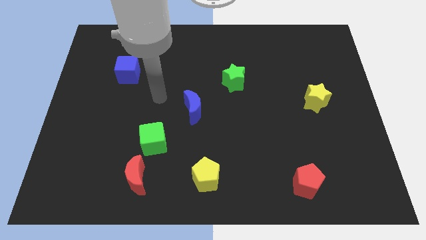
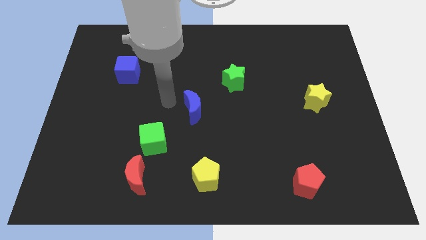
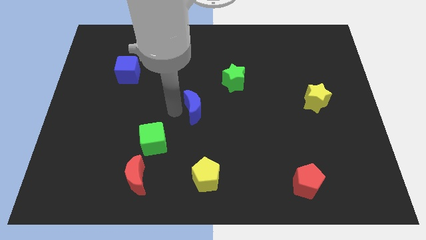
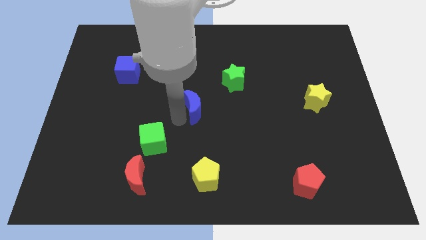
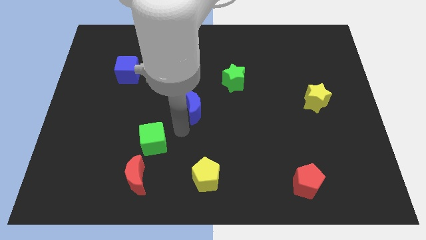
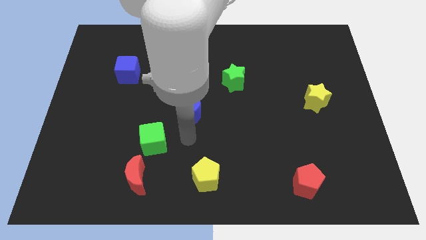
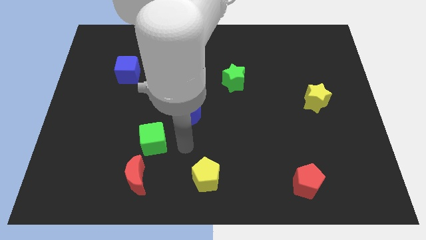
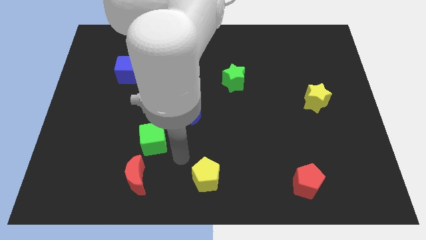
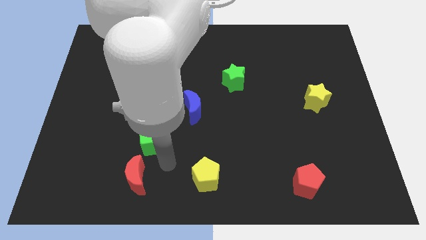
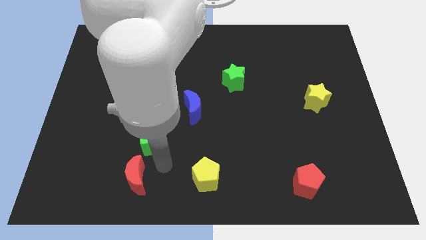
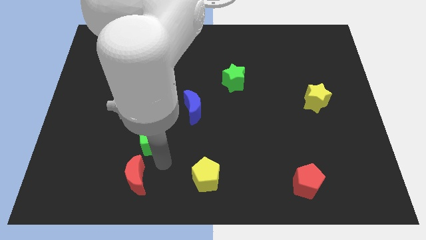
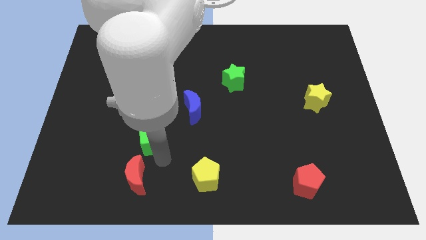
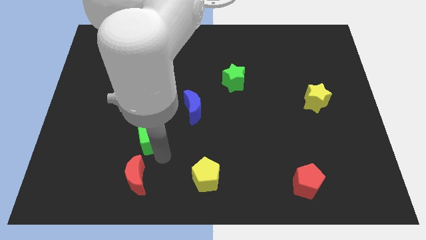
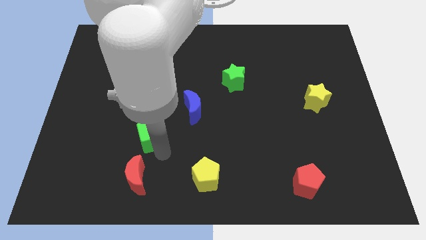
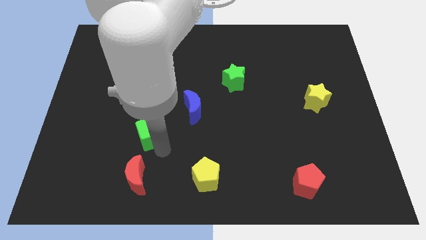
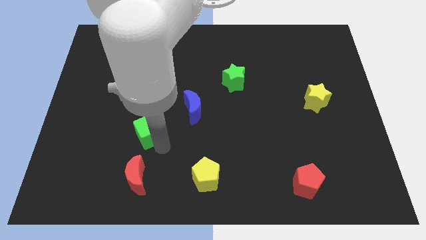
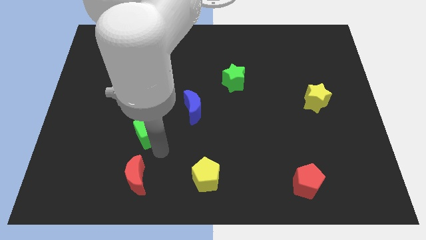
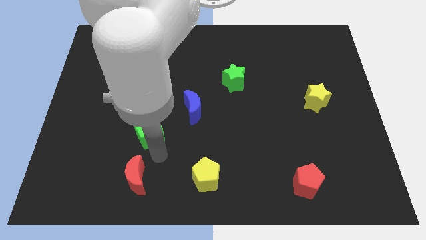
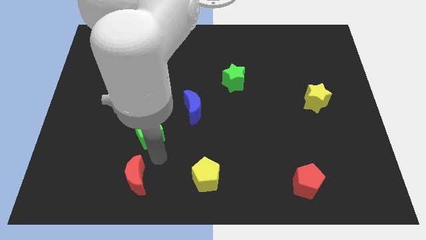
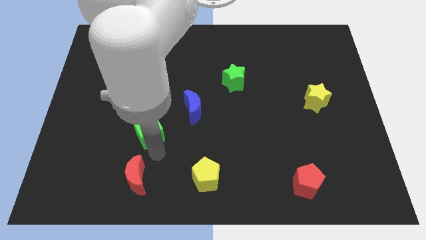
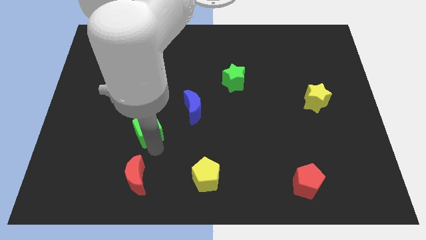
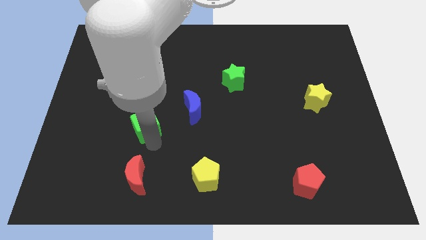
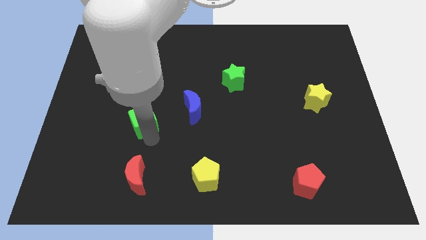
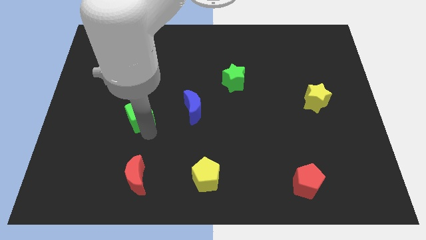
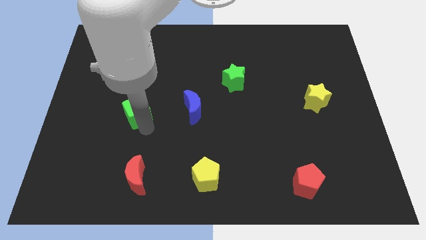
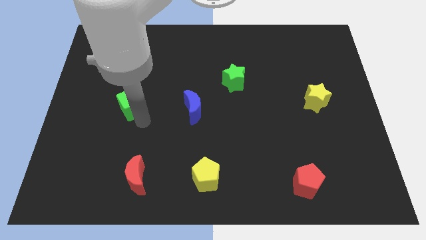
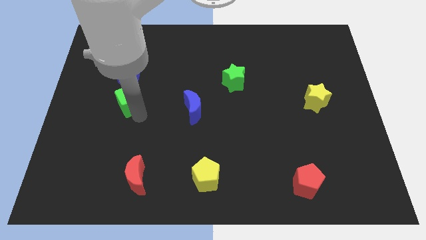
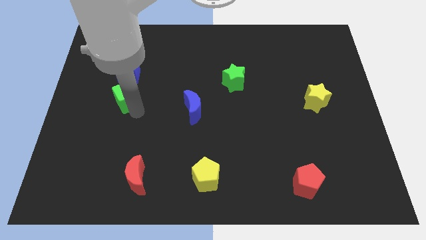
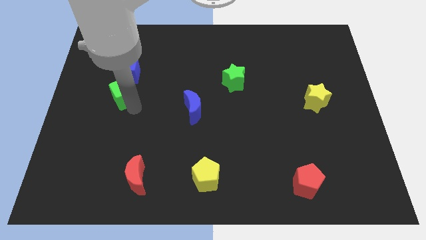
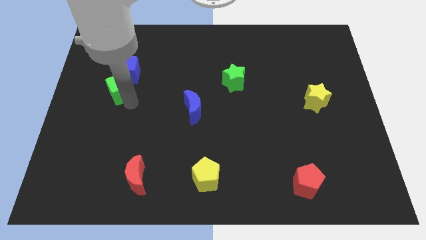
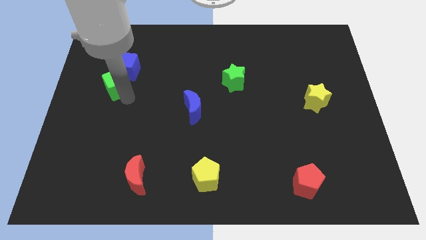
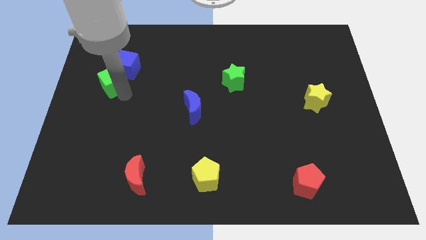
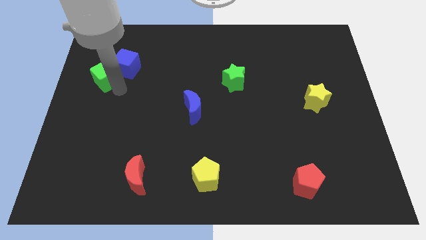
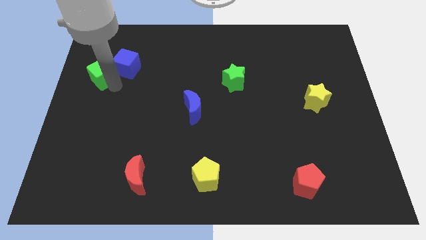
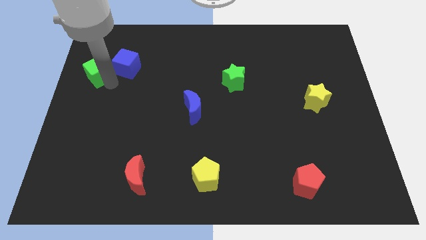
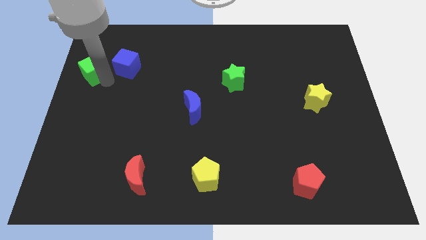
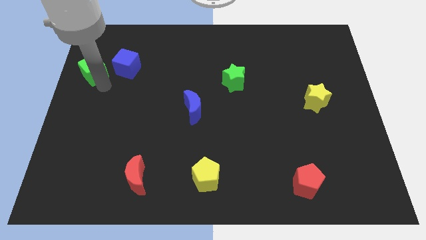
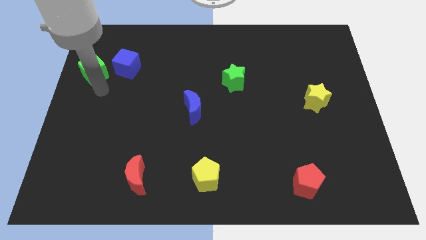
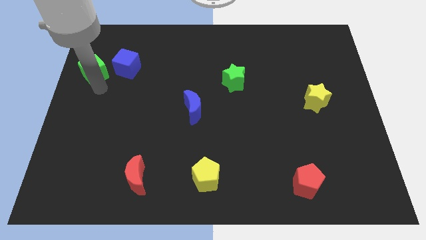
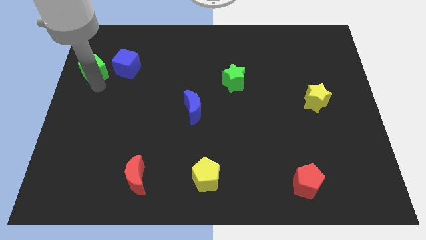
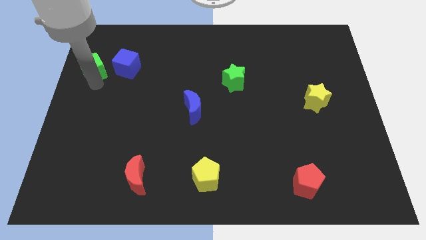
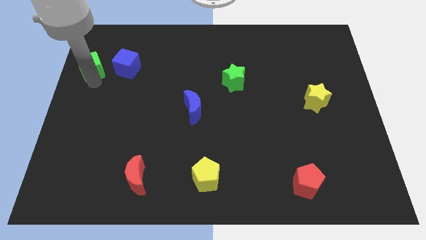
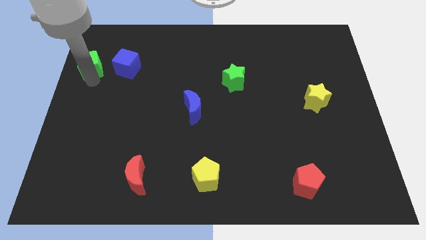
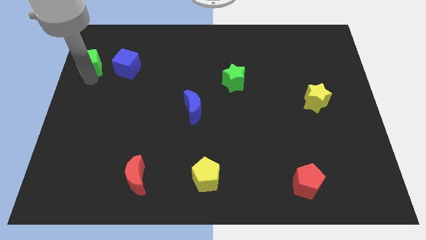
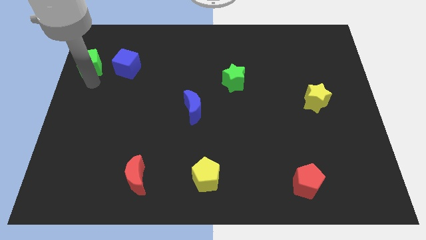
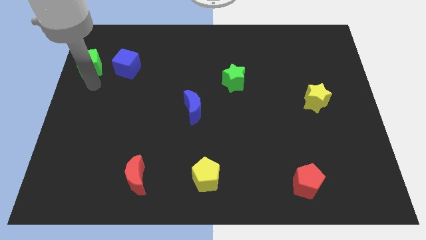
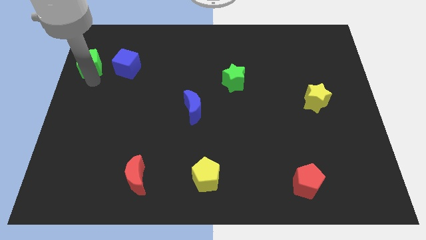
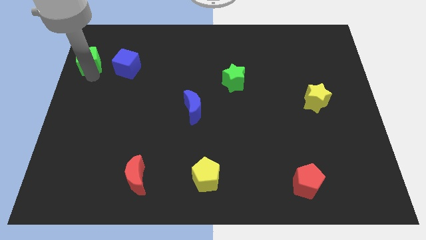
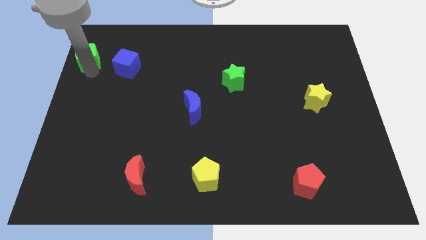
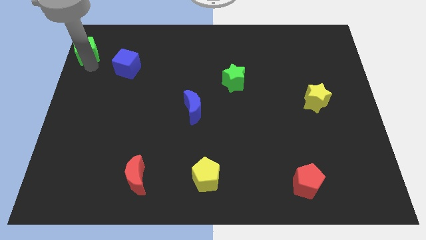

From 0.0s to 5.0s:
move the green cube to the upper left corner

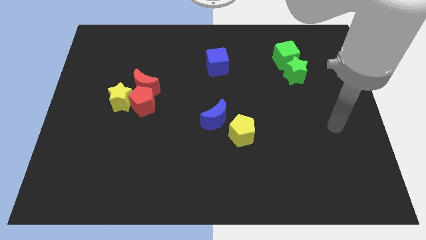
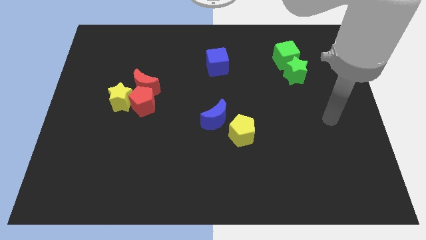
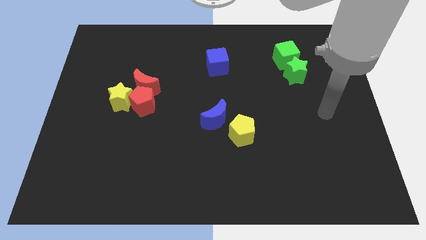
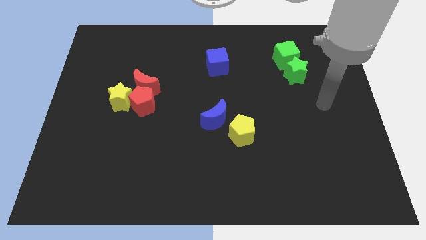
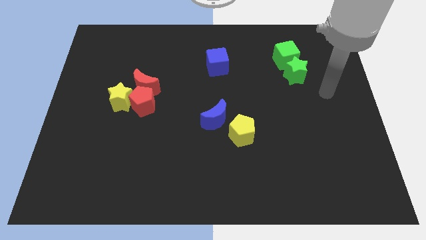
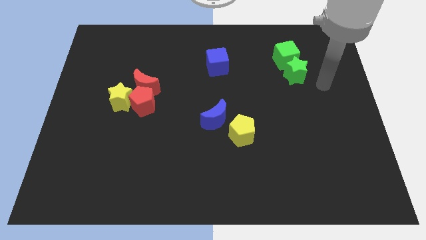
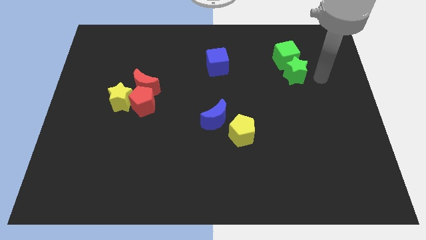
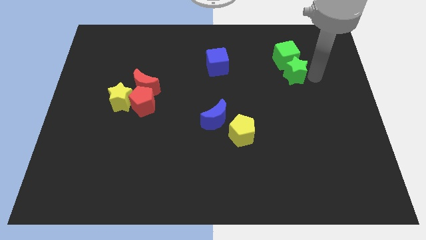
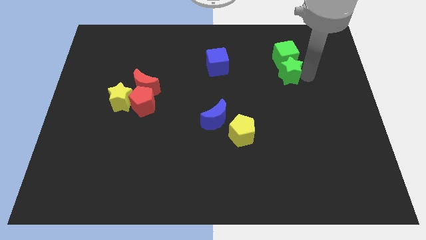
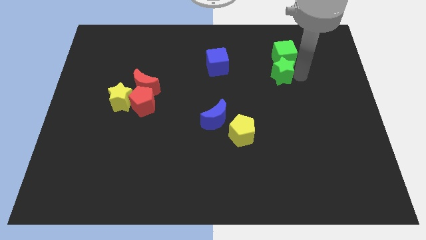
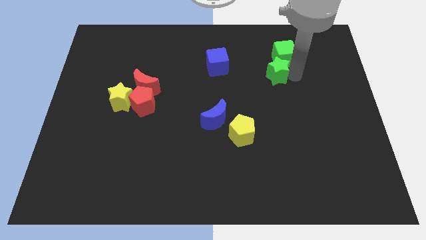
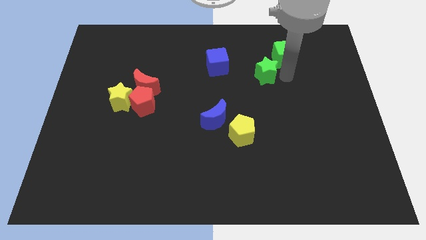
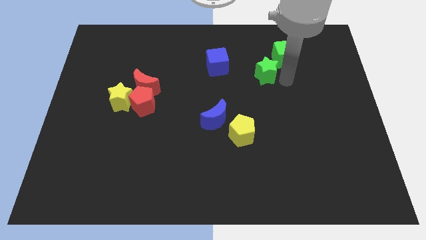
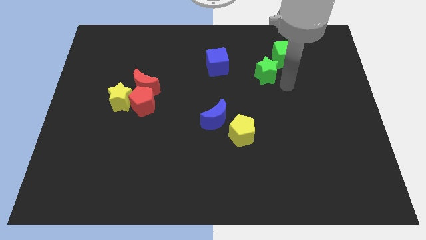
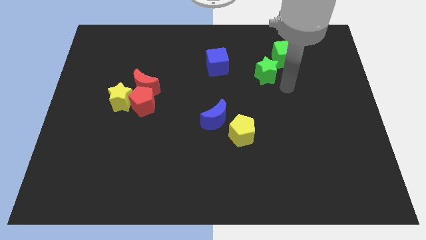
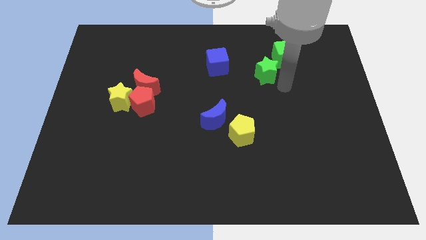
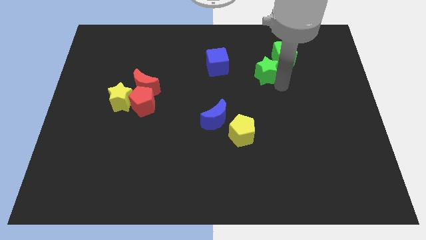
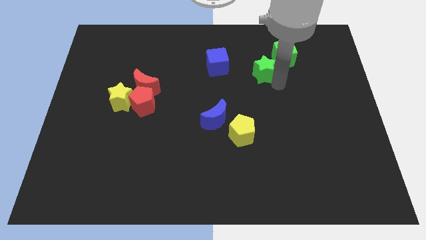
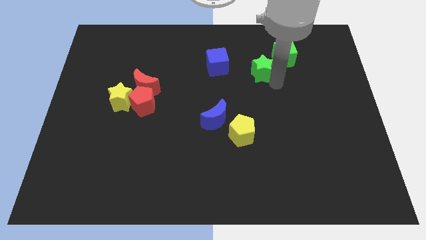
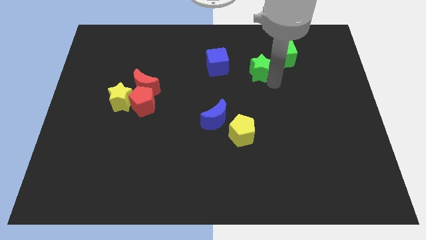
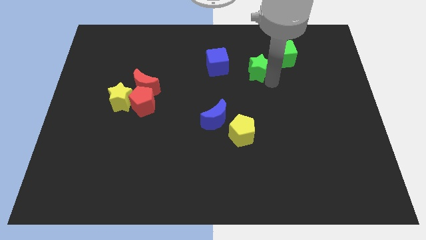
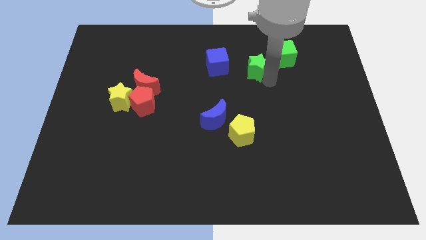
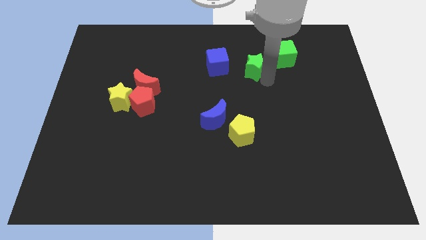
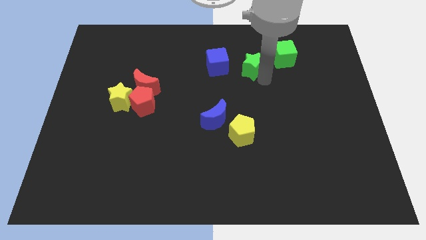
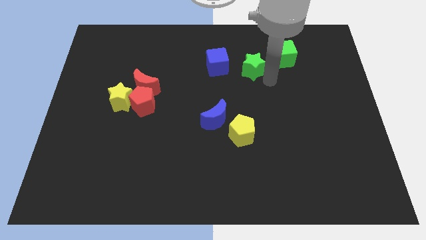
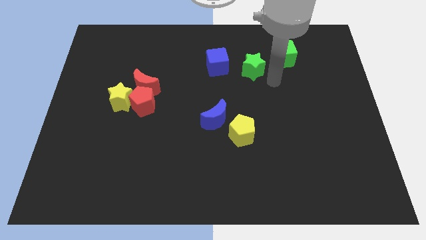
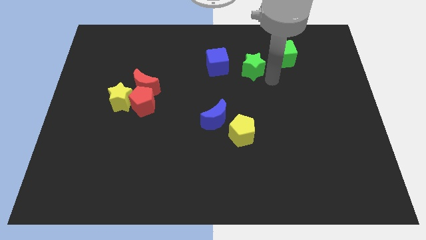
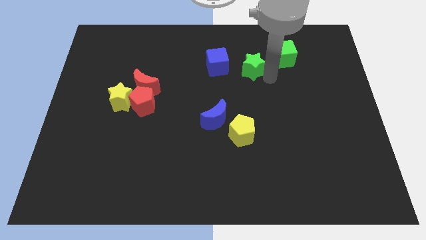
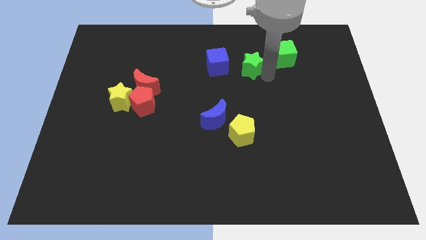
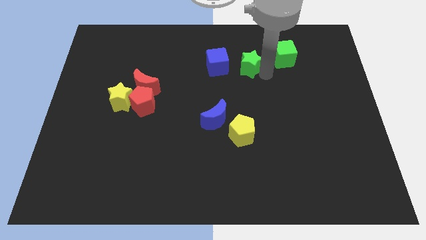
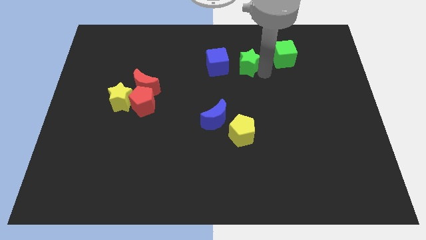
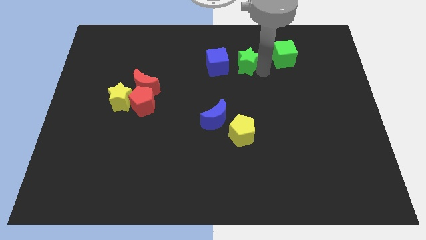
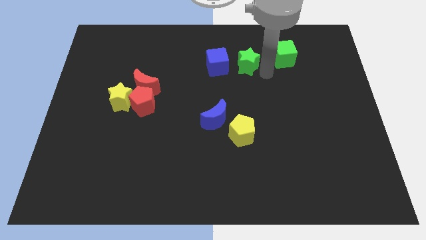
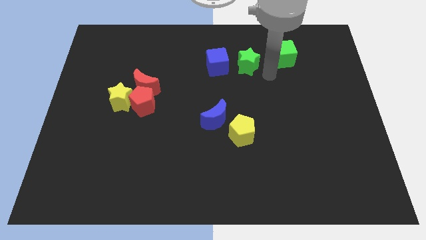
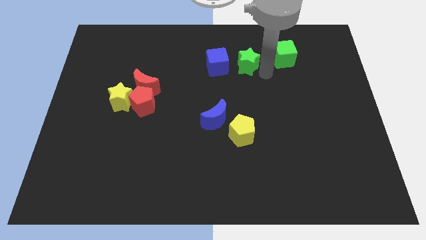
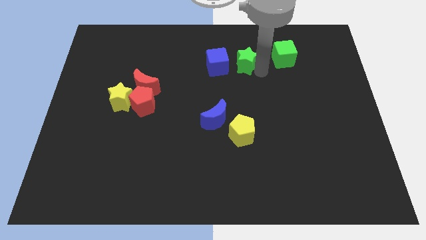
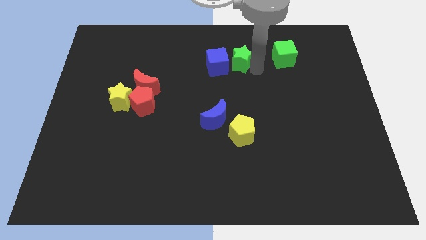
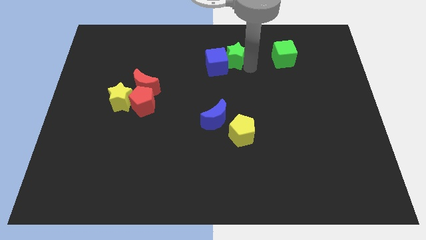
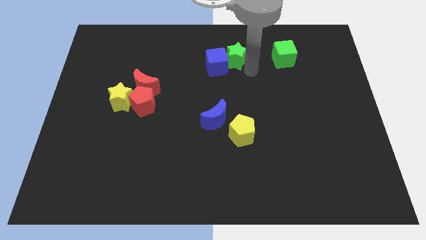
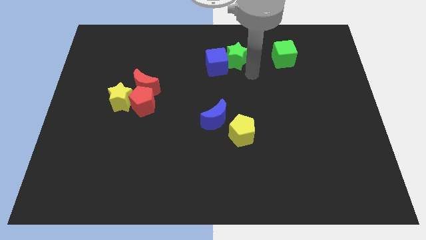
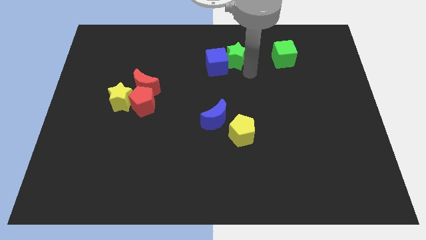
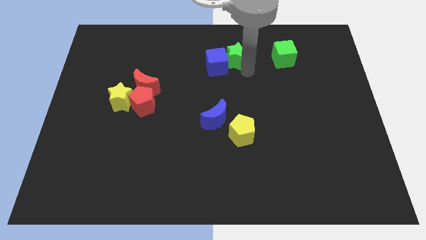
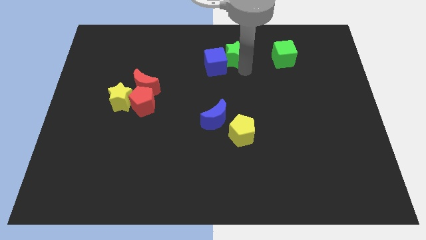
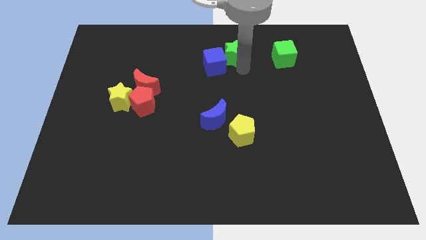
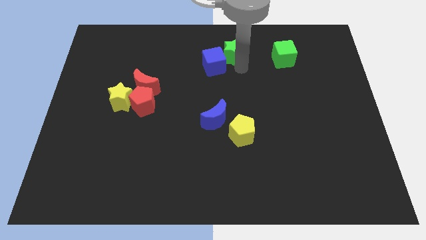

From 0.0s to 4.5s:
slide the green star to the top
